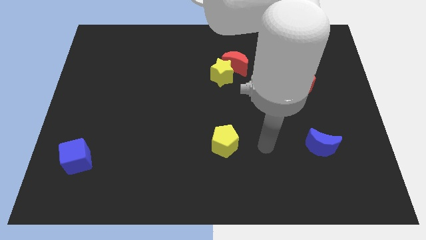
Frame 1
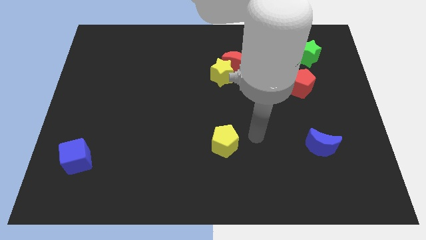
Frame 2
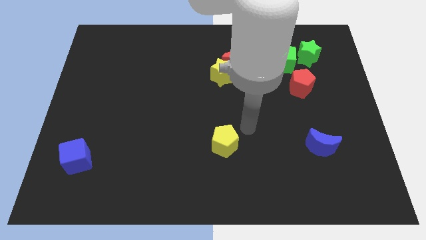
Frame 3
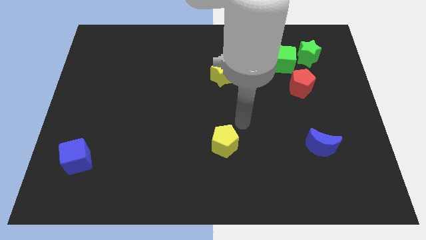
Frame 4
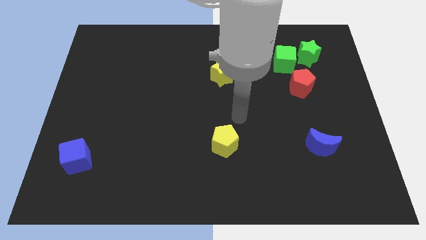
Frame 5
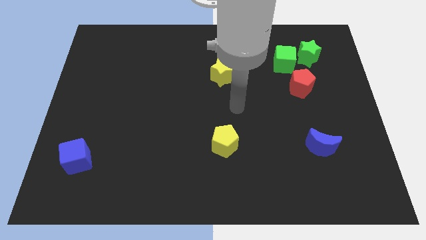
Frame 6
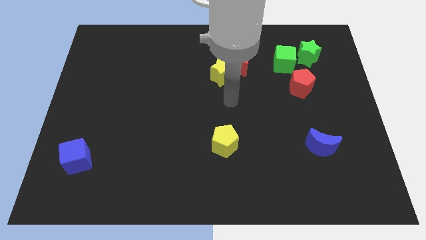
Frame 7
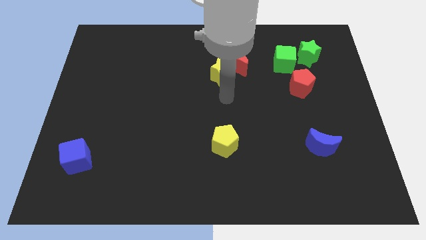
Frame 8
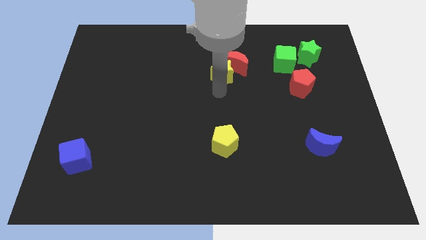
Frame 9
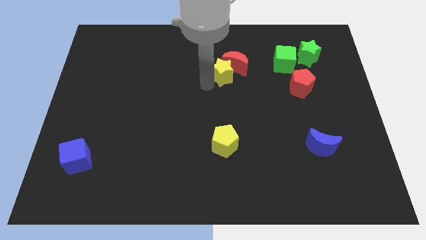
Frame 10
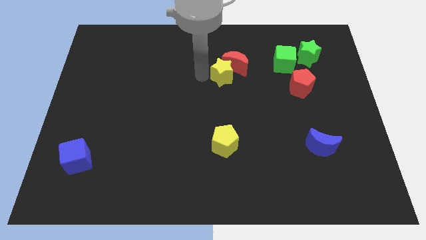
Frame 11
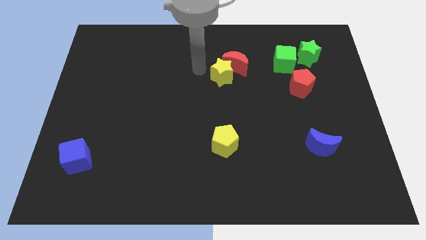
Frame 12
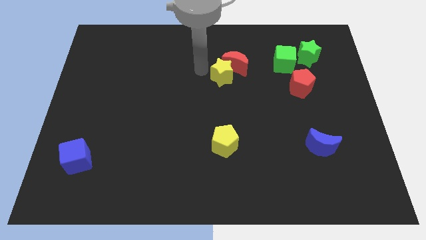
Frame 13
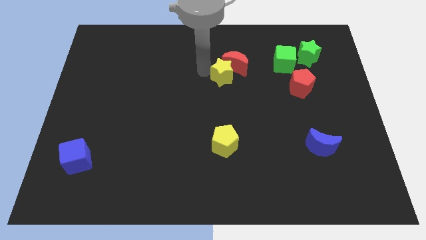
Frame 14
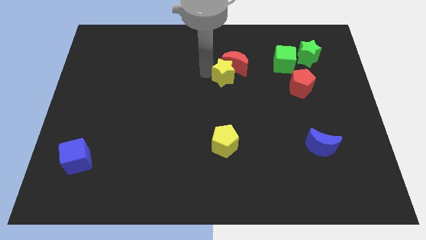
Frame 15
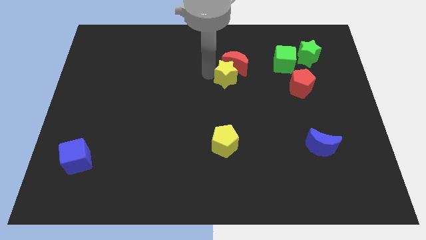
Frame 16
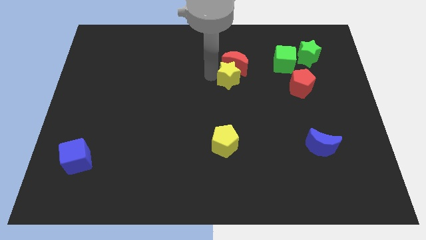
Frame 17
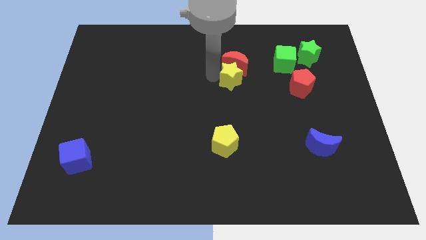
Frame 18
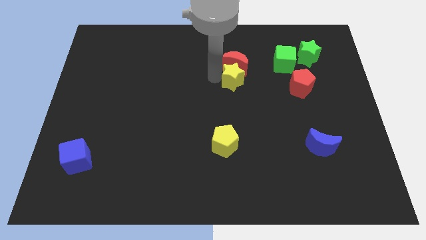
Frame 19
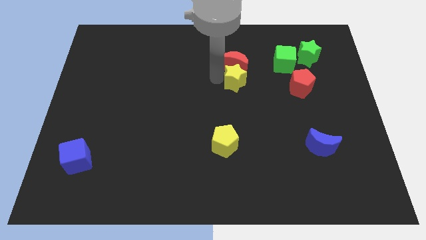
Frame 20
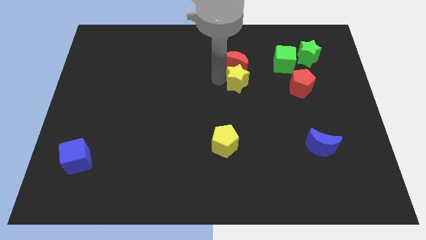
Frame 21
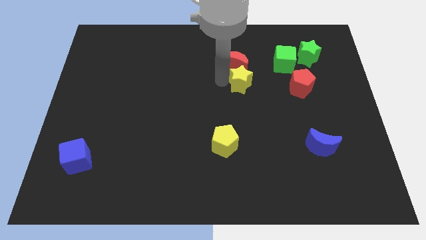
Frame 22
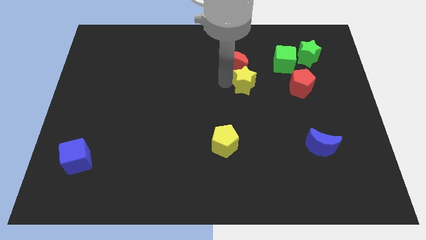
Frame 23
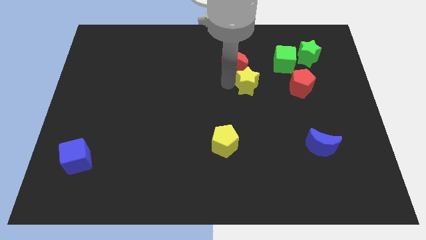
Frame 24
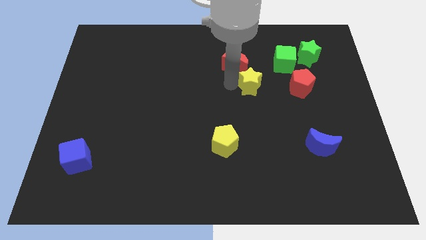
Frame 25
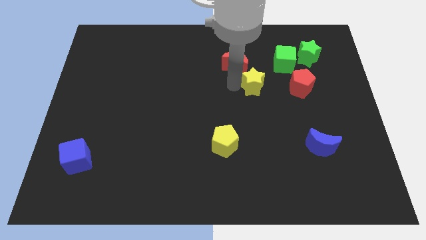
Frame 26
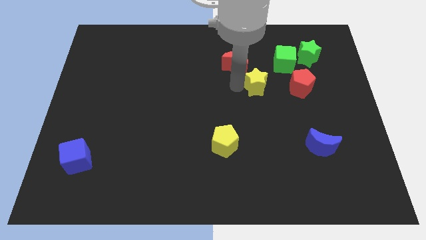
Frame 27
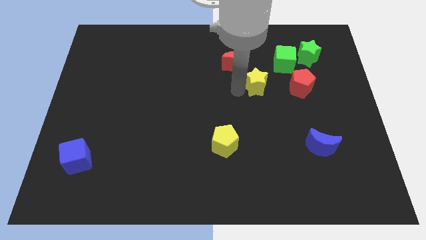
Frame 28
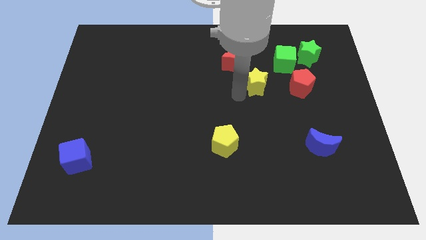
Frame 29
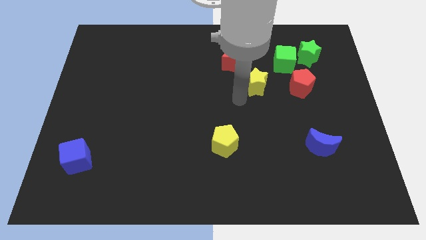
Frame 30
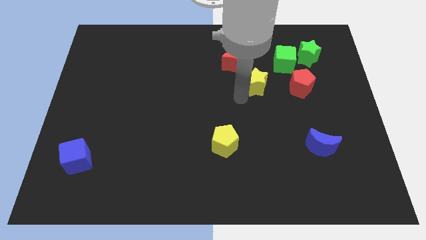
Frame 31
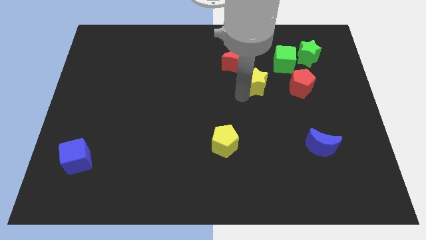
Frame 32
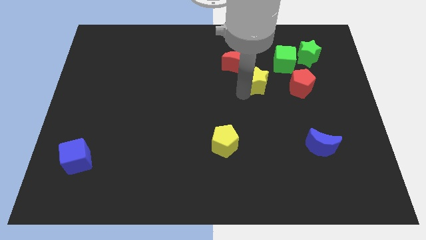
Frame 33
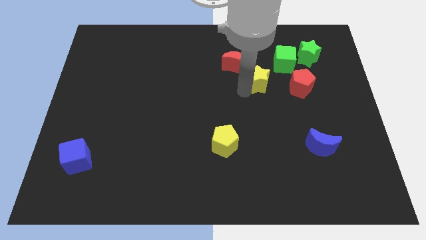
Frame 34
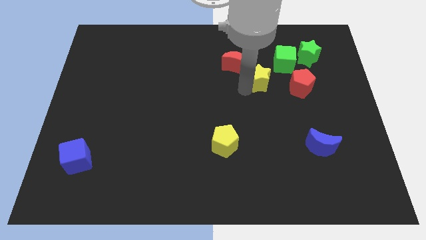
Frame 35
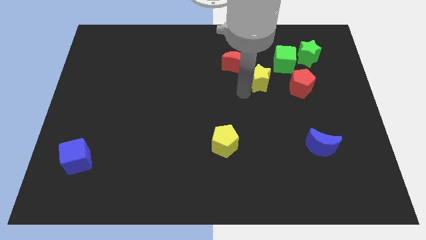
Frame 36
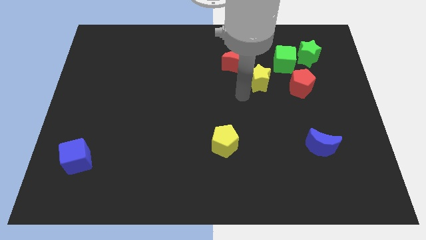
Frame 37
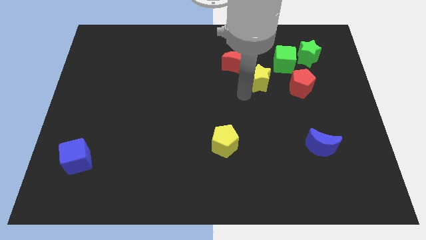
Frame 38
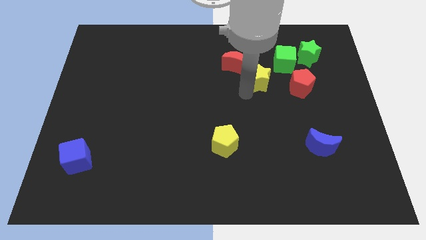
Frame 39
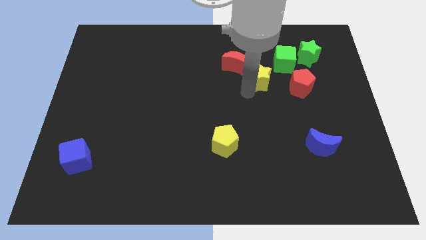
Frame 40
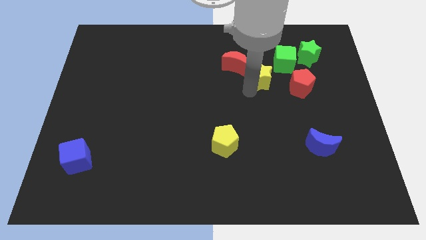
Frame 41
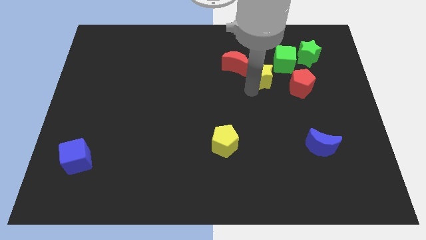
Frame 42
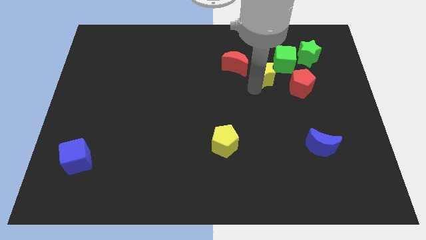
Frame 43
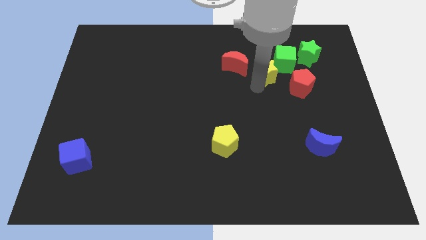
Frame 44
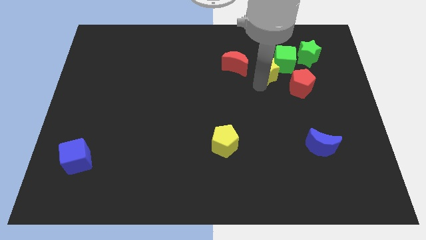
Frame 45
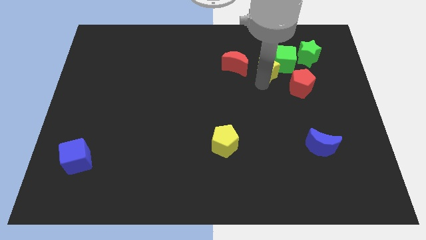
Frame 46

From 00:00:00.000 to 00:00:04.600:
move the yellow star close to the green cube

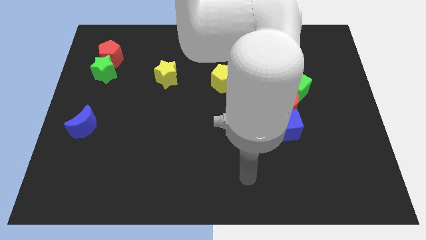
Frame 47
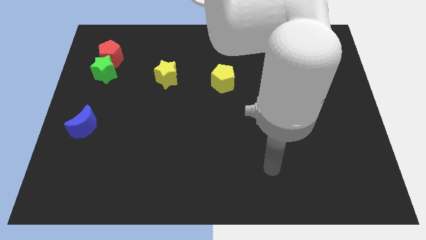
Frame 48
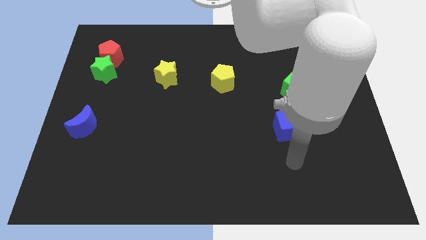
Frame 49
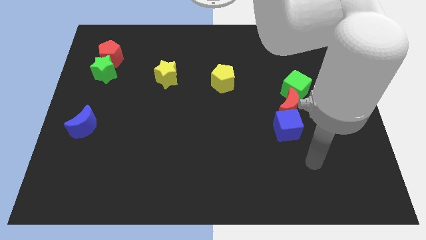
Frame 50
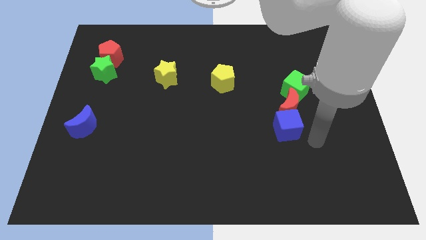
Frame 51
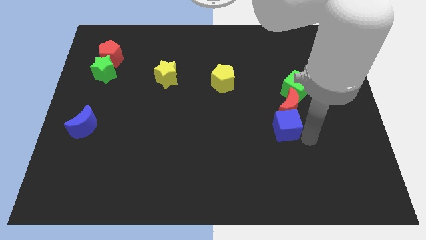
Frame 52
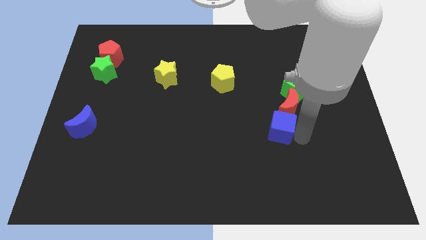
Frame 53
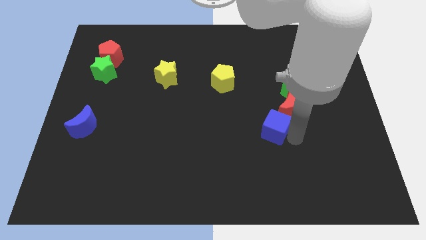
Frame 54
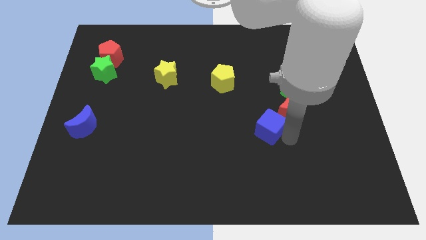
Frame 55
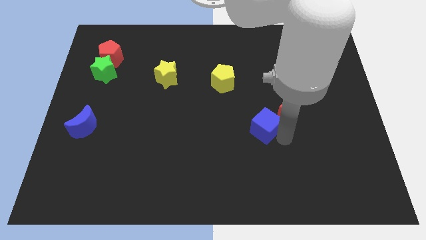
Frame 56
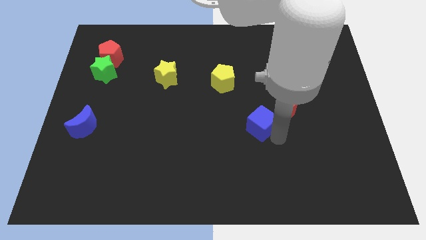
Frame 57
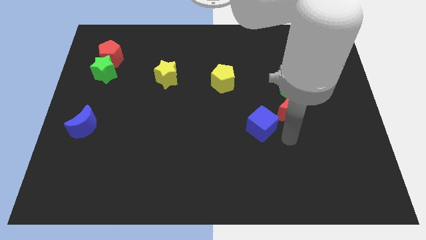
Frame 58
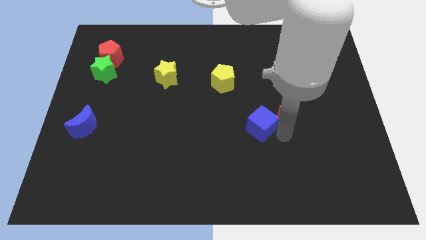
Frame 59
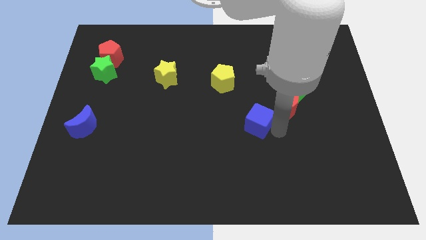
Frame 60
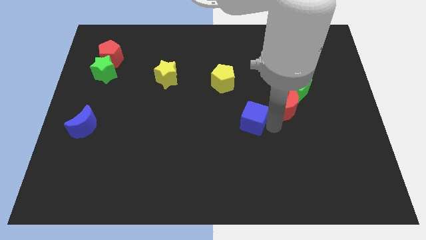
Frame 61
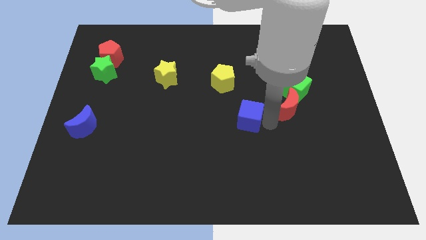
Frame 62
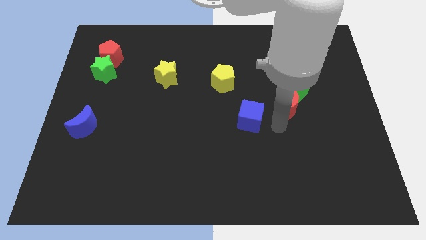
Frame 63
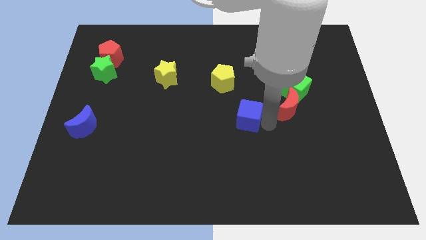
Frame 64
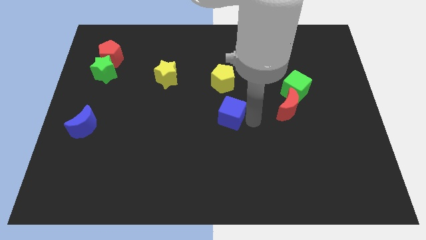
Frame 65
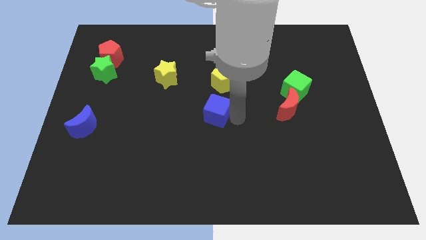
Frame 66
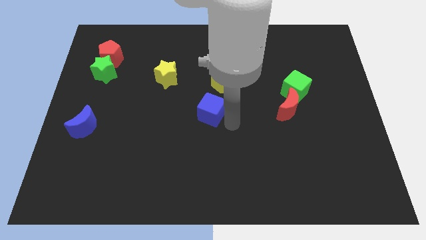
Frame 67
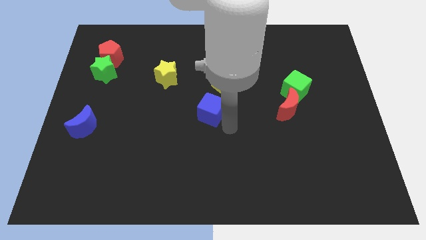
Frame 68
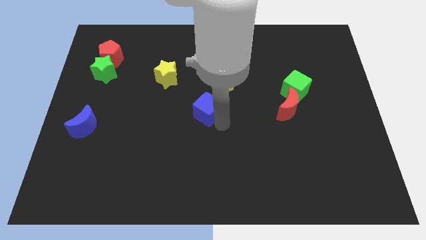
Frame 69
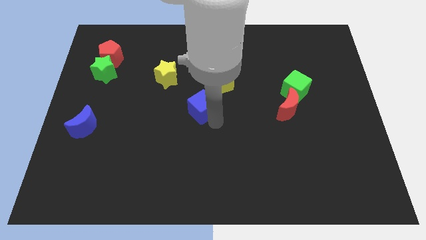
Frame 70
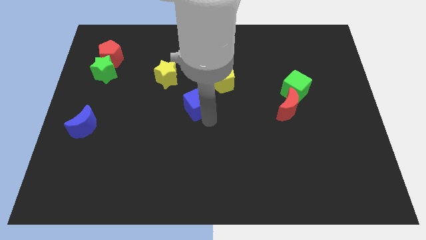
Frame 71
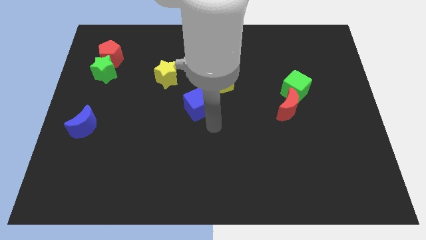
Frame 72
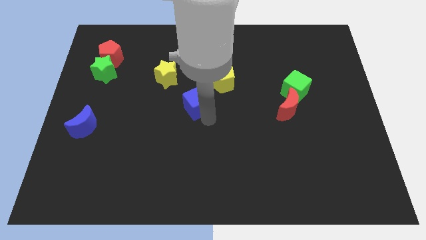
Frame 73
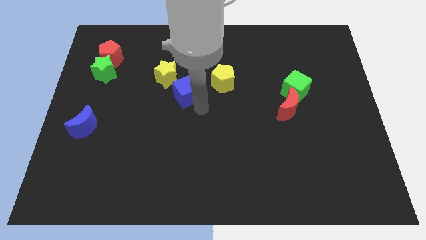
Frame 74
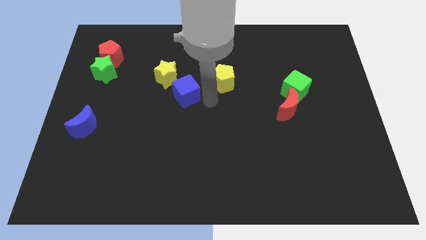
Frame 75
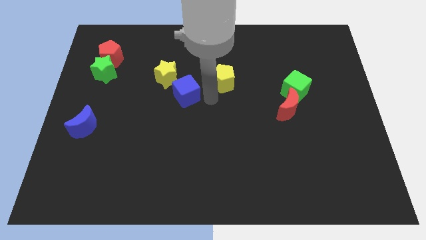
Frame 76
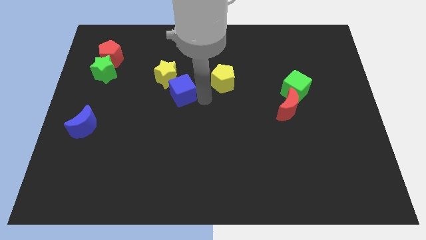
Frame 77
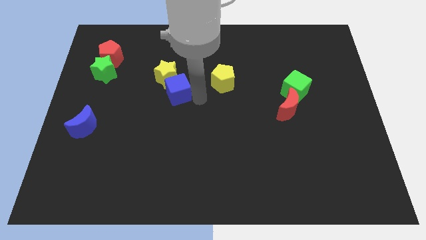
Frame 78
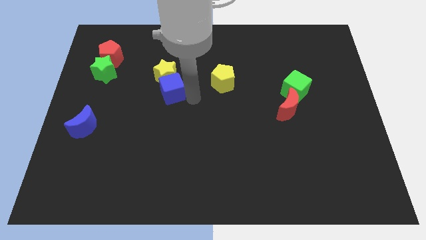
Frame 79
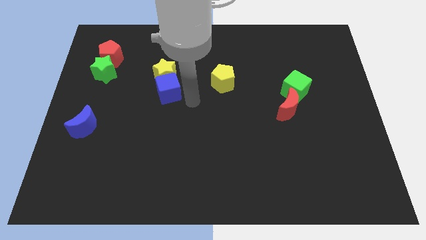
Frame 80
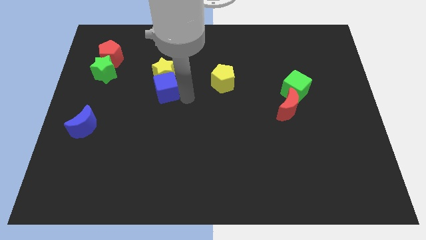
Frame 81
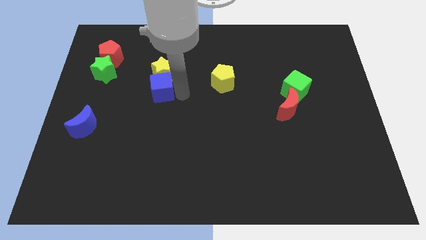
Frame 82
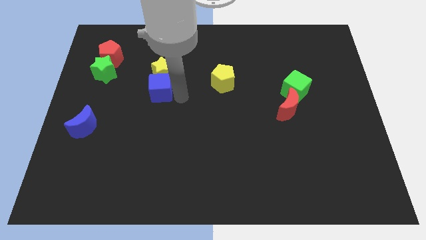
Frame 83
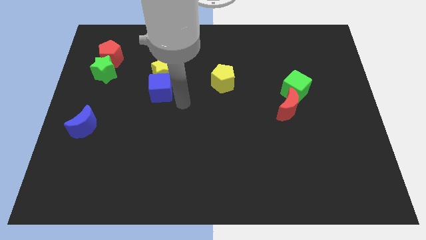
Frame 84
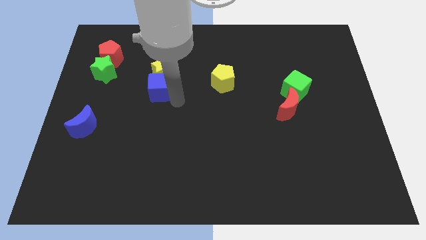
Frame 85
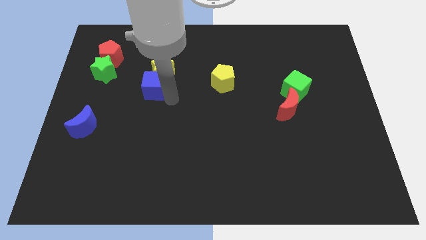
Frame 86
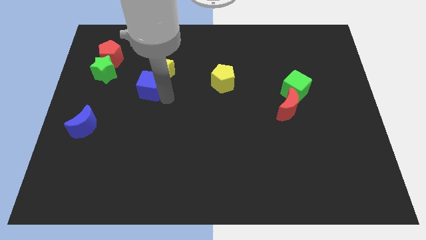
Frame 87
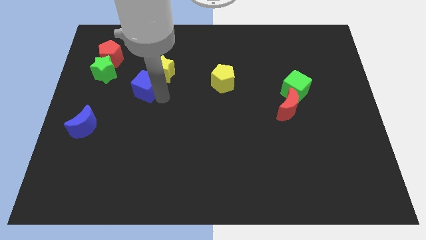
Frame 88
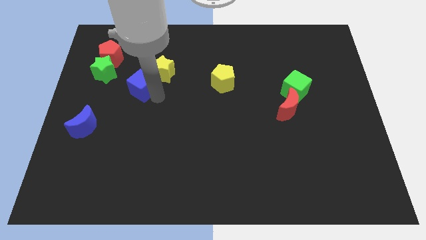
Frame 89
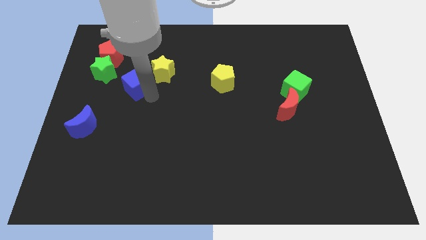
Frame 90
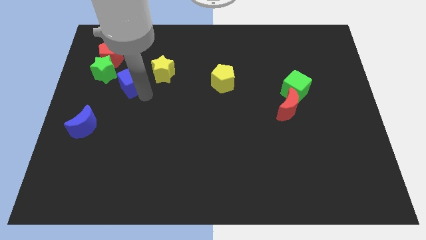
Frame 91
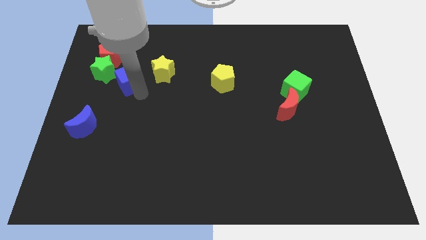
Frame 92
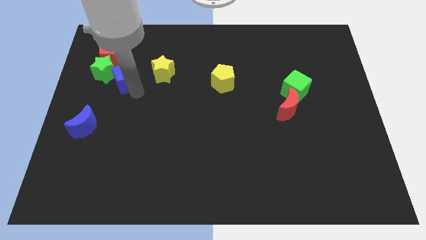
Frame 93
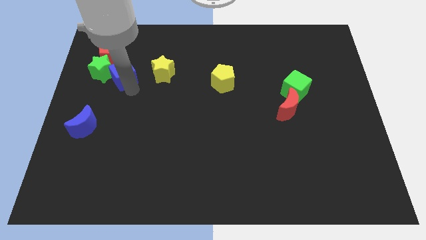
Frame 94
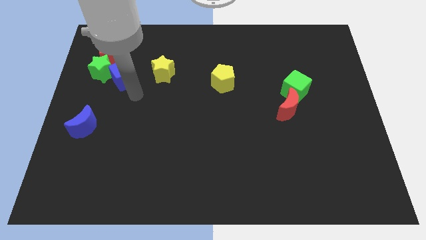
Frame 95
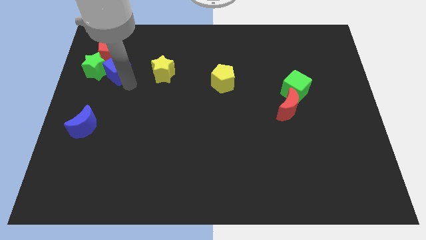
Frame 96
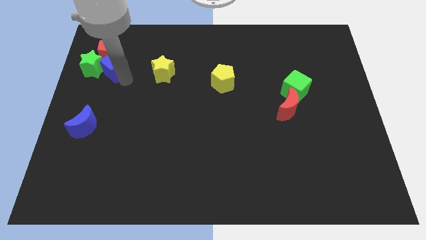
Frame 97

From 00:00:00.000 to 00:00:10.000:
push the blue cube close to the red pentagon
